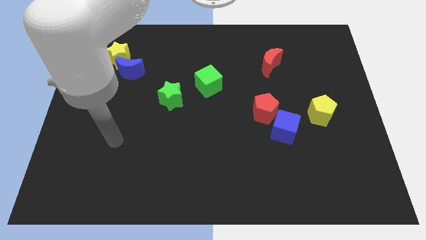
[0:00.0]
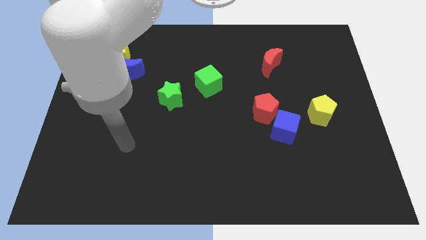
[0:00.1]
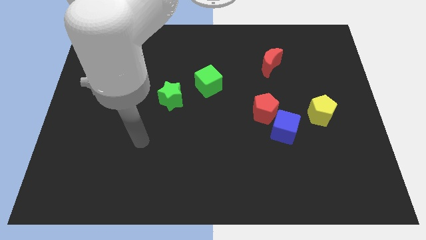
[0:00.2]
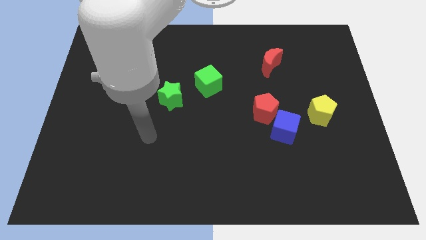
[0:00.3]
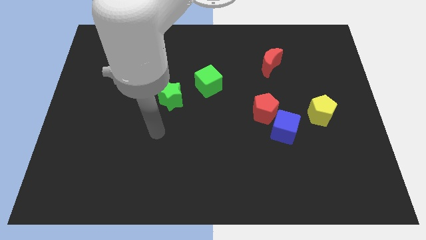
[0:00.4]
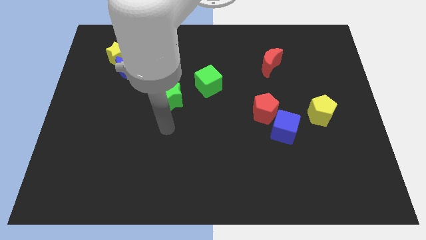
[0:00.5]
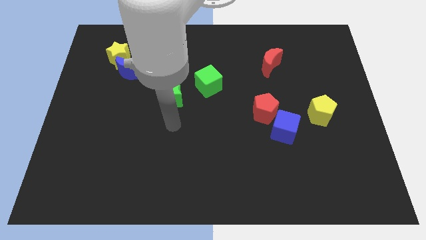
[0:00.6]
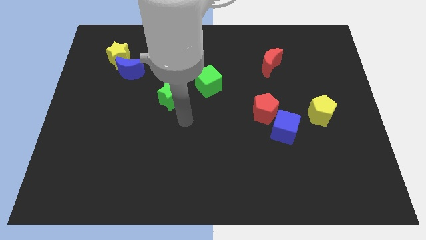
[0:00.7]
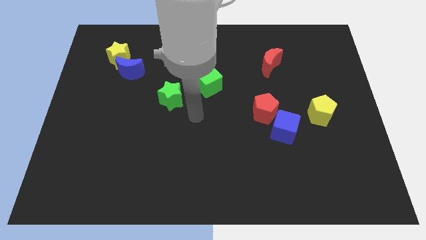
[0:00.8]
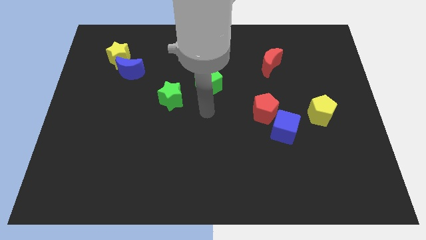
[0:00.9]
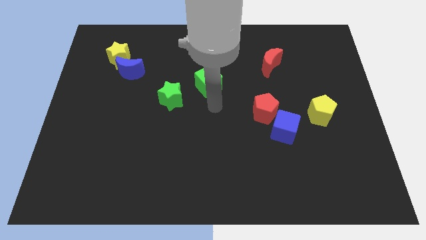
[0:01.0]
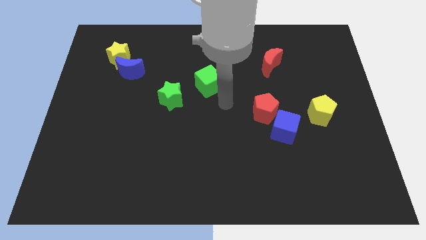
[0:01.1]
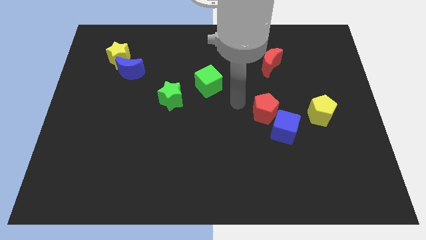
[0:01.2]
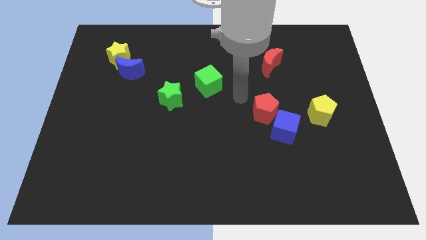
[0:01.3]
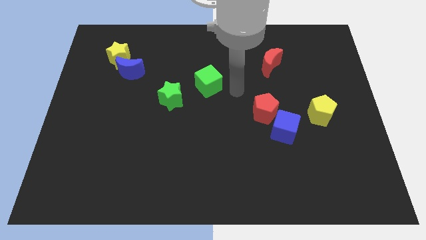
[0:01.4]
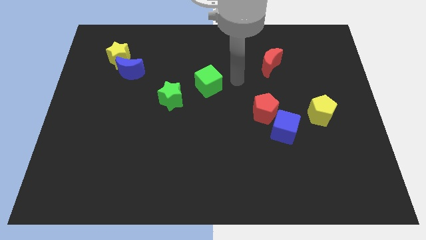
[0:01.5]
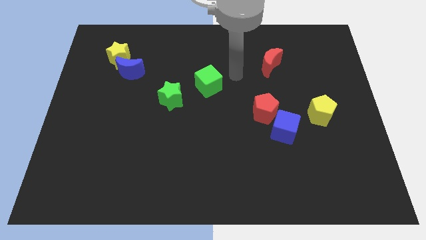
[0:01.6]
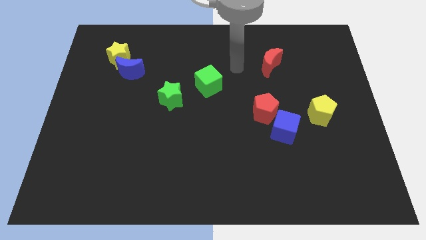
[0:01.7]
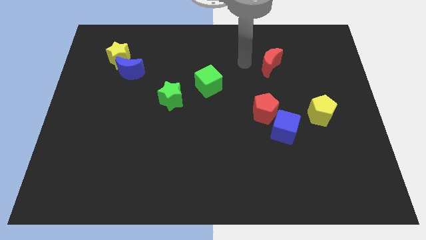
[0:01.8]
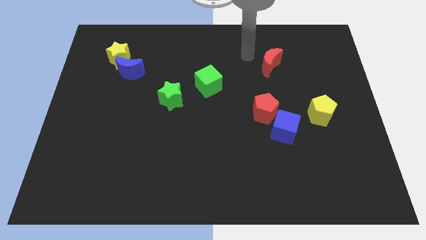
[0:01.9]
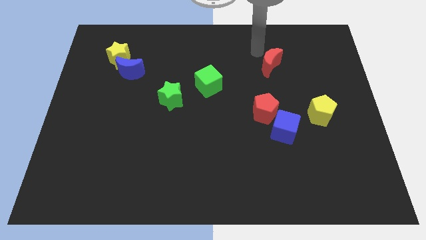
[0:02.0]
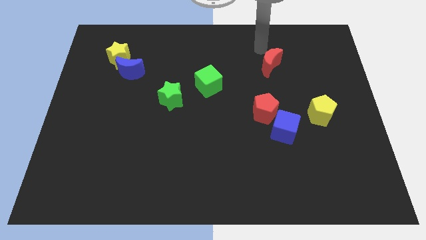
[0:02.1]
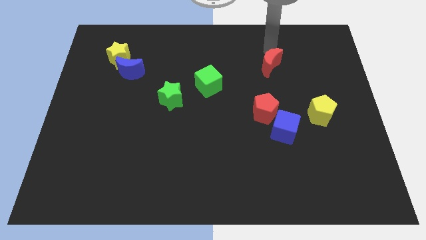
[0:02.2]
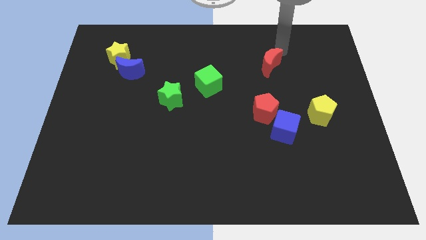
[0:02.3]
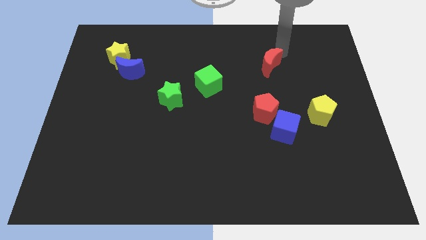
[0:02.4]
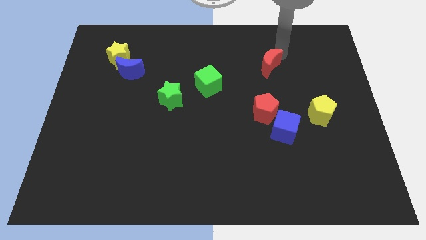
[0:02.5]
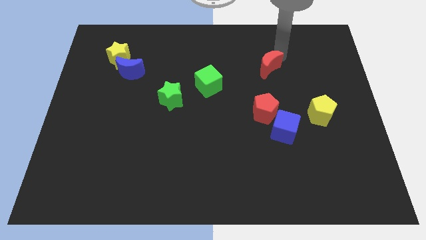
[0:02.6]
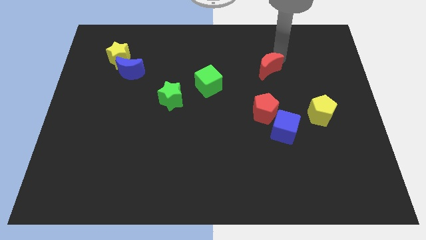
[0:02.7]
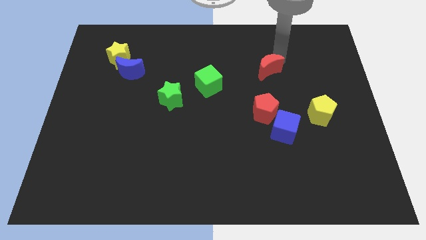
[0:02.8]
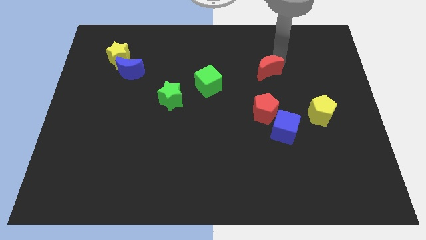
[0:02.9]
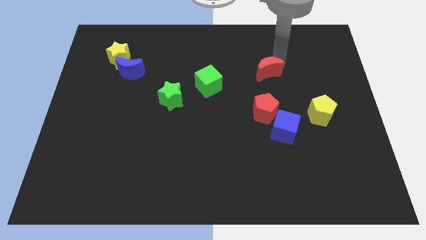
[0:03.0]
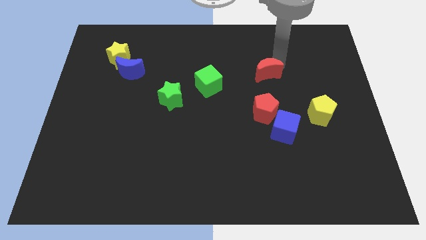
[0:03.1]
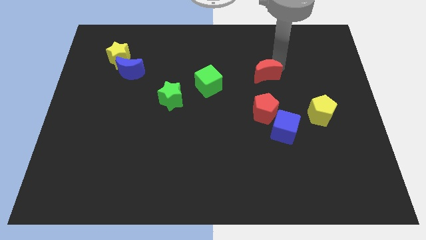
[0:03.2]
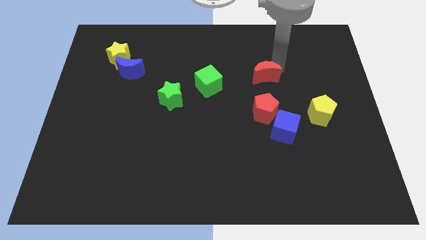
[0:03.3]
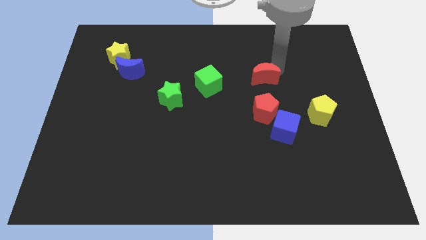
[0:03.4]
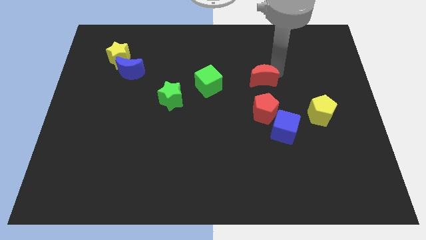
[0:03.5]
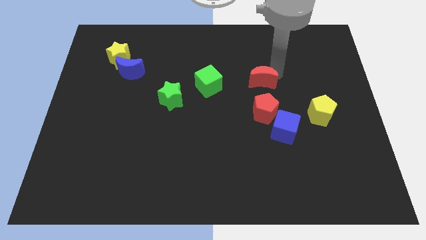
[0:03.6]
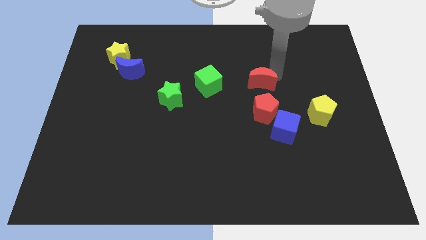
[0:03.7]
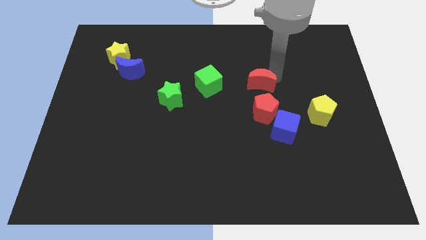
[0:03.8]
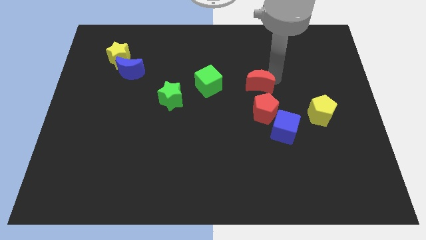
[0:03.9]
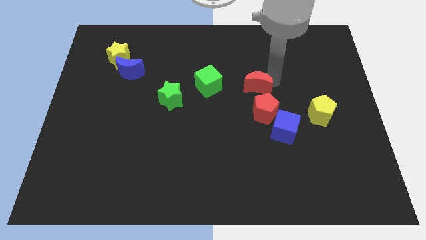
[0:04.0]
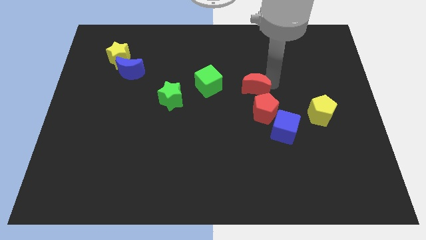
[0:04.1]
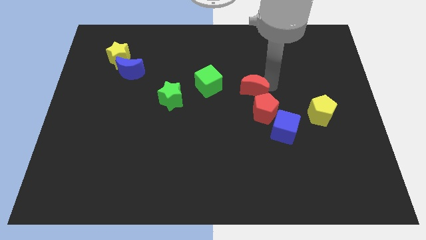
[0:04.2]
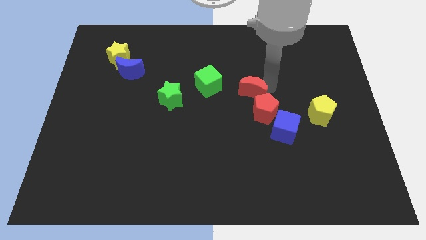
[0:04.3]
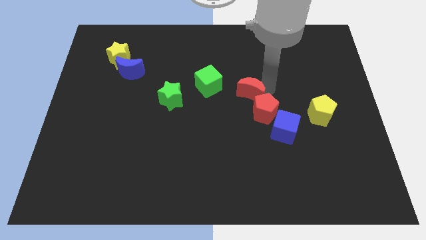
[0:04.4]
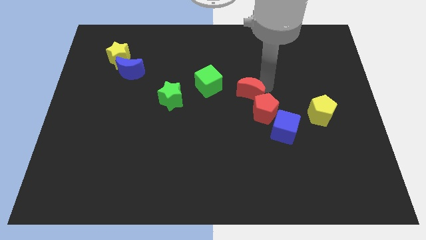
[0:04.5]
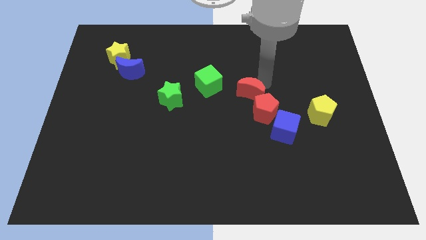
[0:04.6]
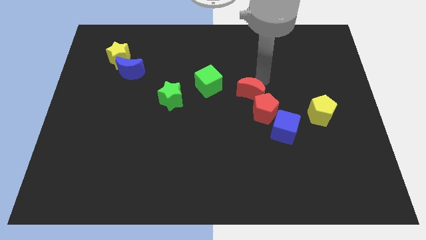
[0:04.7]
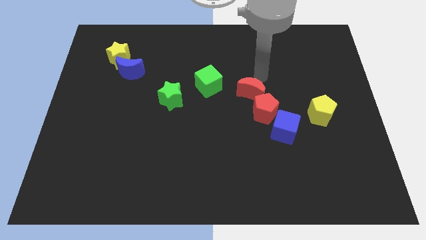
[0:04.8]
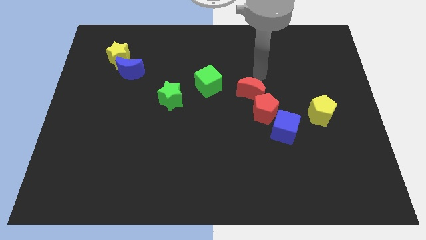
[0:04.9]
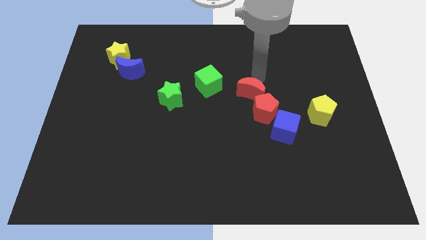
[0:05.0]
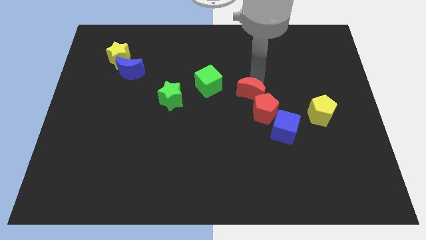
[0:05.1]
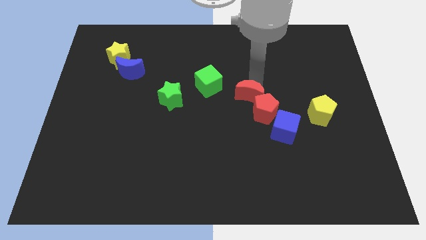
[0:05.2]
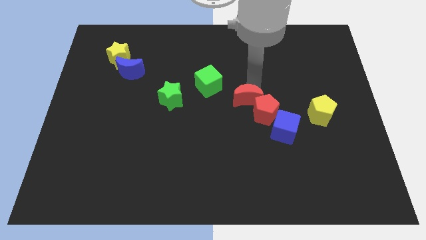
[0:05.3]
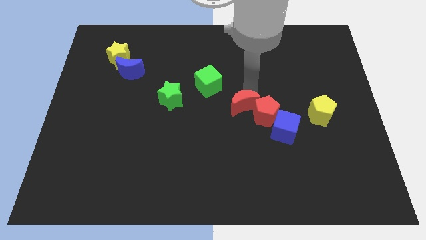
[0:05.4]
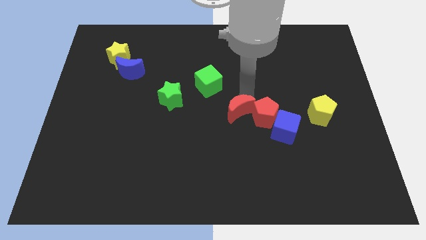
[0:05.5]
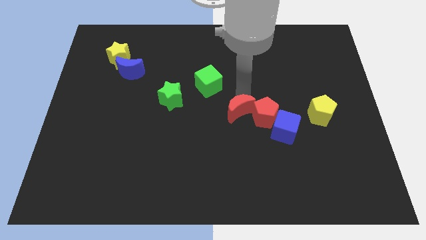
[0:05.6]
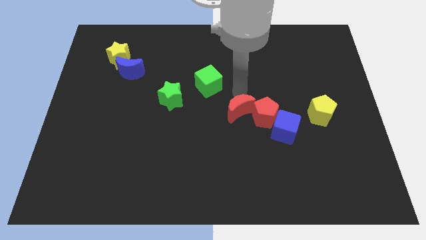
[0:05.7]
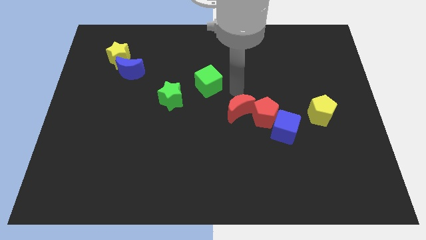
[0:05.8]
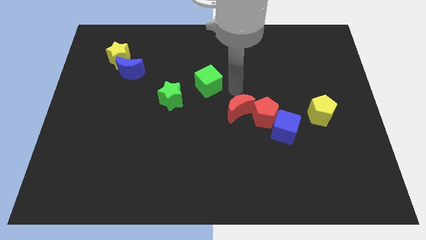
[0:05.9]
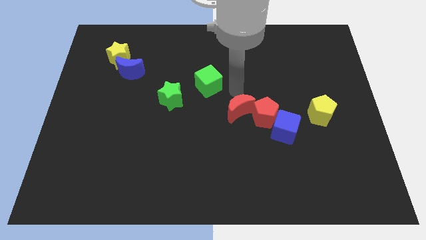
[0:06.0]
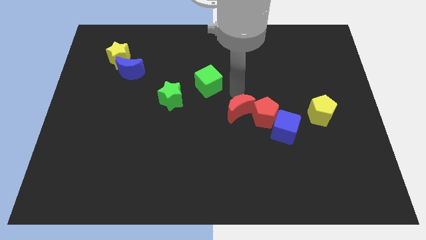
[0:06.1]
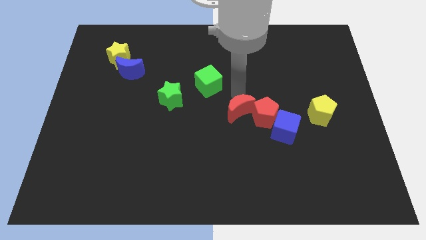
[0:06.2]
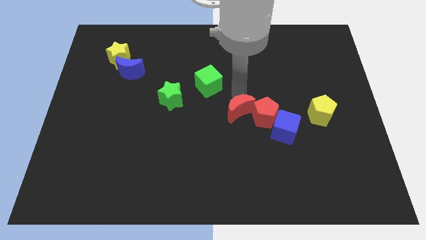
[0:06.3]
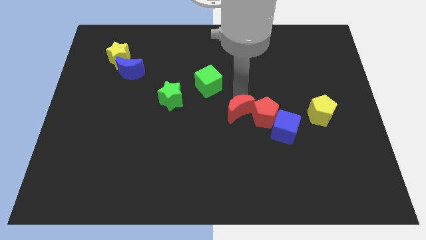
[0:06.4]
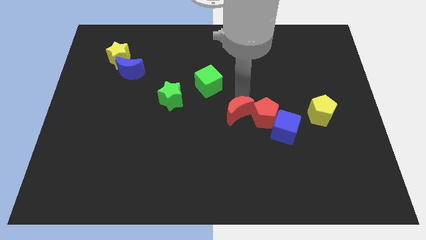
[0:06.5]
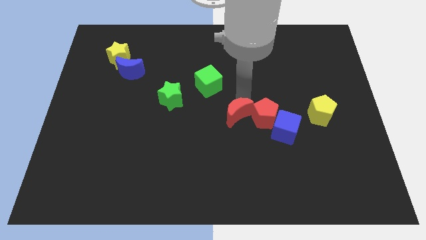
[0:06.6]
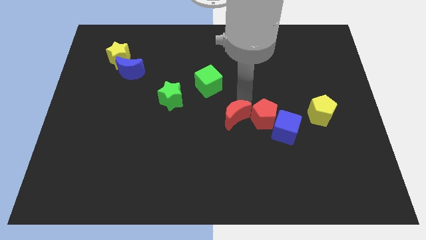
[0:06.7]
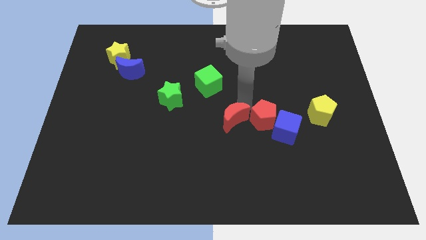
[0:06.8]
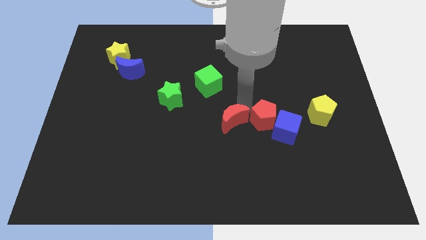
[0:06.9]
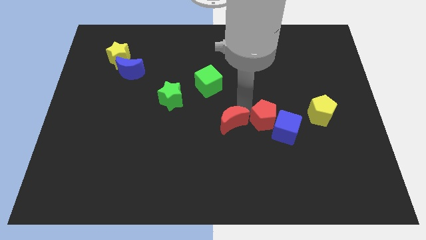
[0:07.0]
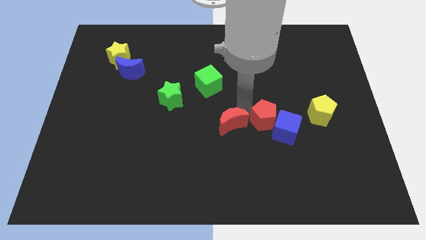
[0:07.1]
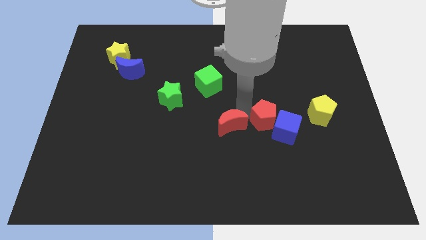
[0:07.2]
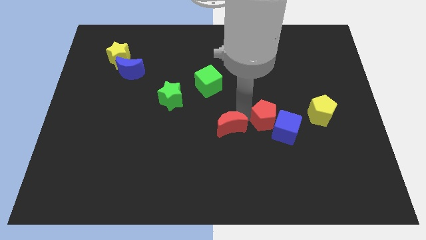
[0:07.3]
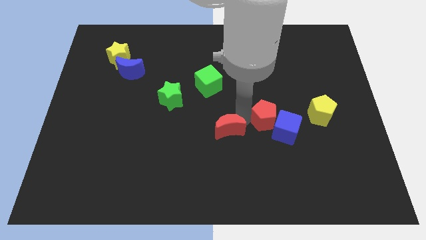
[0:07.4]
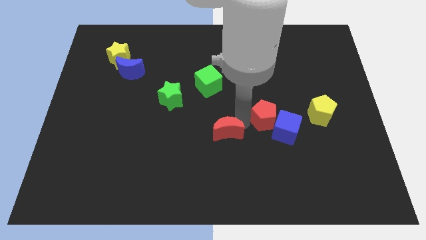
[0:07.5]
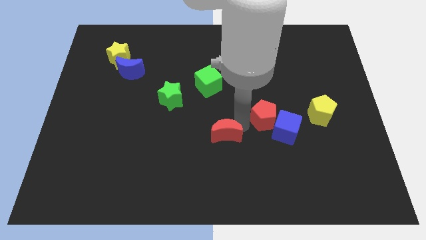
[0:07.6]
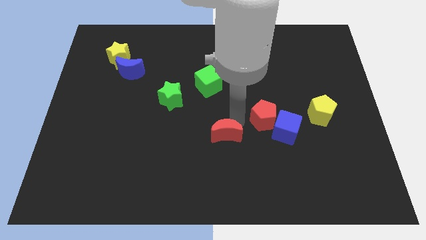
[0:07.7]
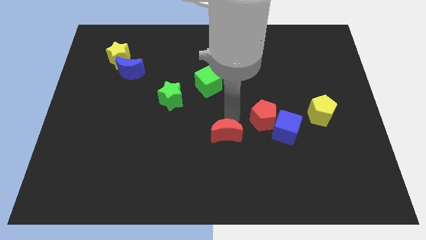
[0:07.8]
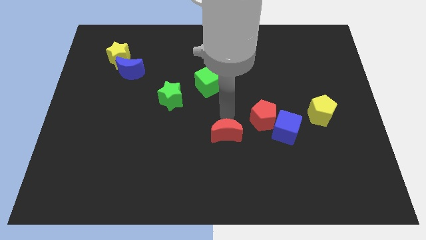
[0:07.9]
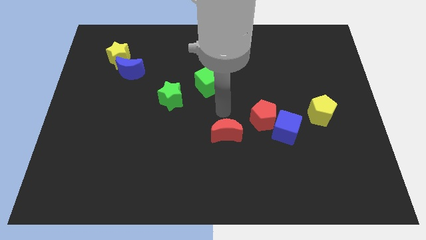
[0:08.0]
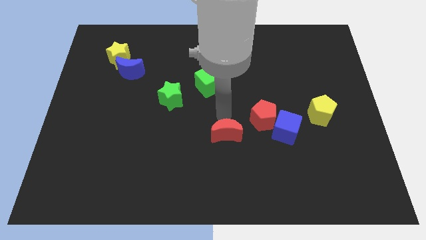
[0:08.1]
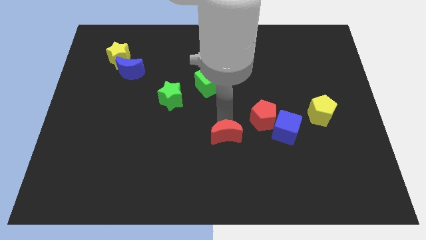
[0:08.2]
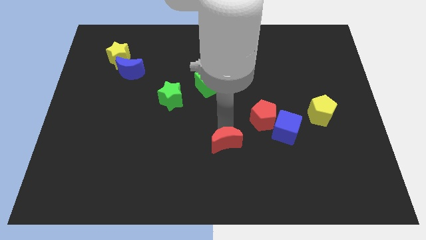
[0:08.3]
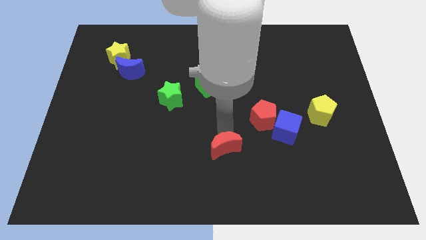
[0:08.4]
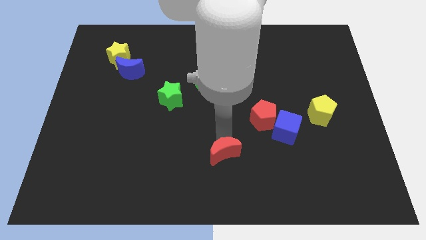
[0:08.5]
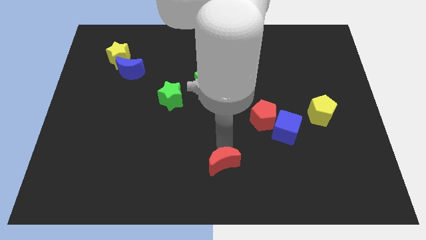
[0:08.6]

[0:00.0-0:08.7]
slide the red moon to the bottom
